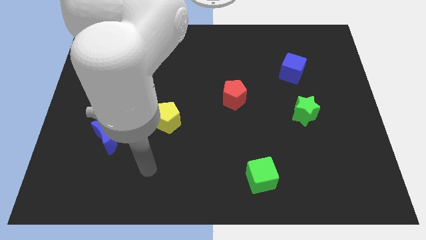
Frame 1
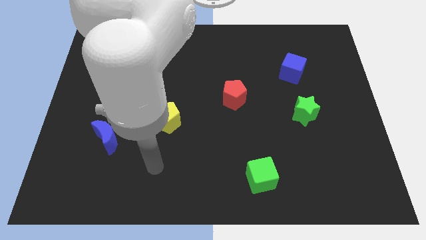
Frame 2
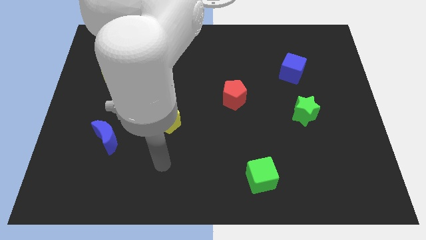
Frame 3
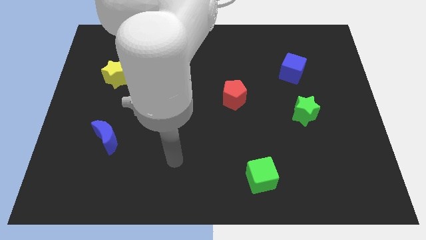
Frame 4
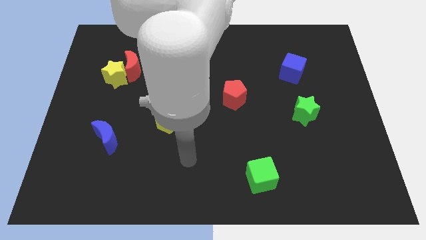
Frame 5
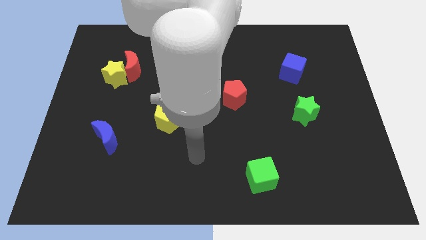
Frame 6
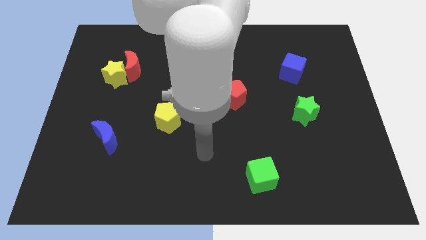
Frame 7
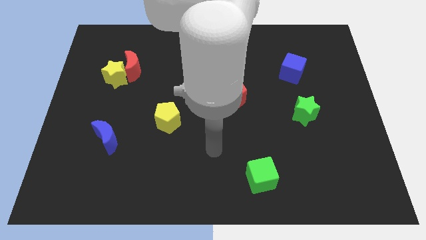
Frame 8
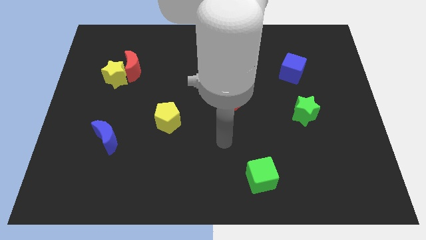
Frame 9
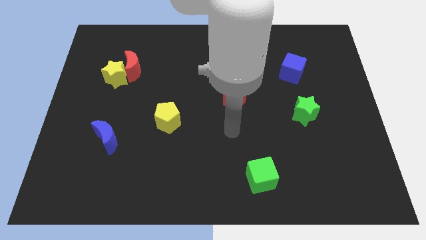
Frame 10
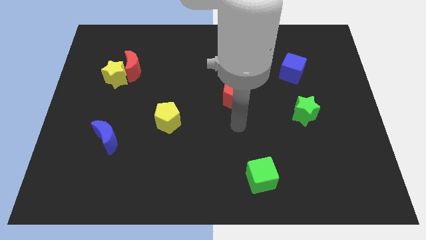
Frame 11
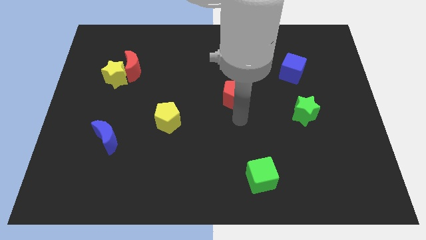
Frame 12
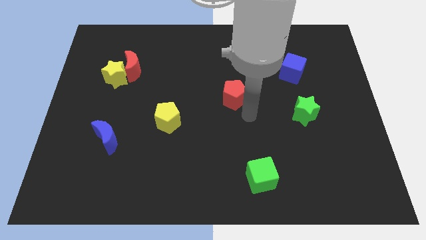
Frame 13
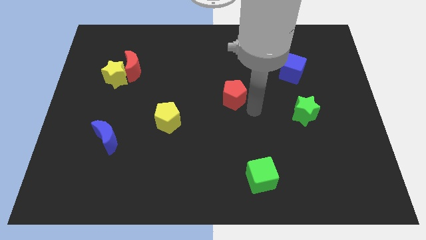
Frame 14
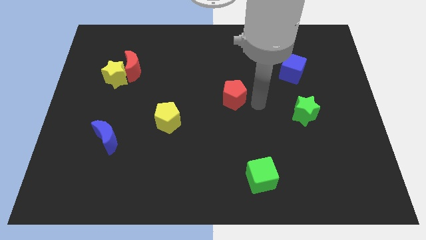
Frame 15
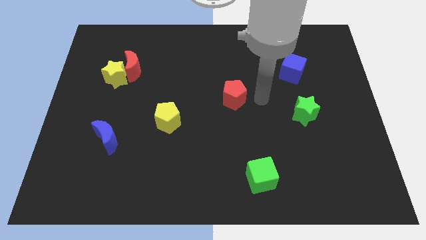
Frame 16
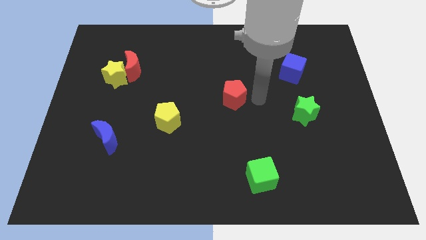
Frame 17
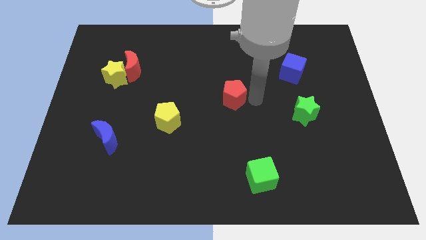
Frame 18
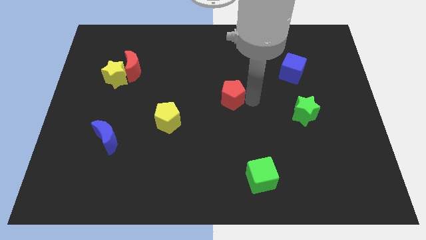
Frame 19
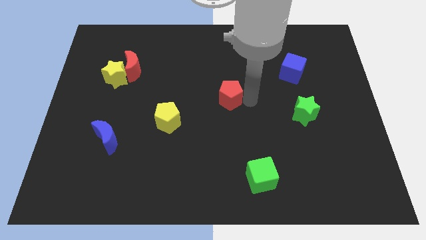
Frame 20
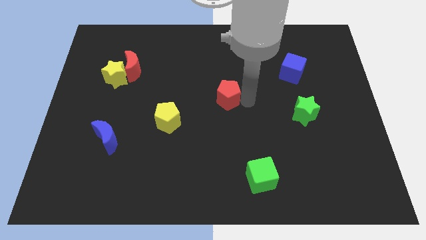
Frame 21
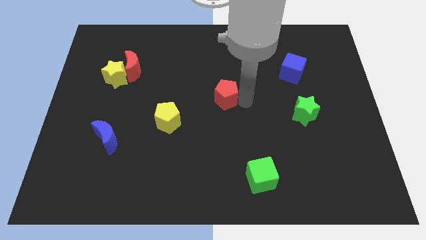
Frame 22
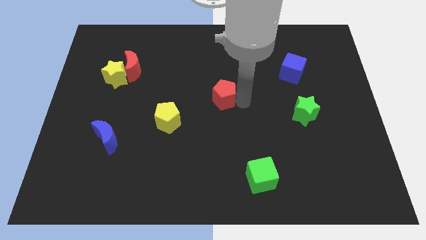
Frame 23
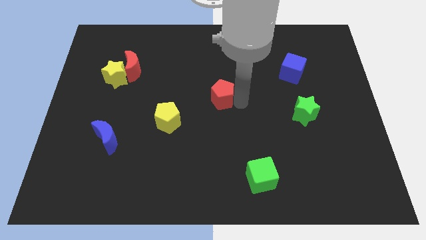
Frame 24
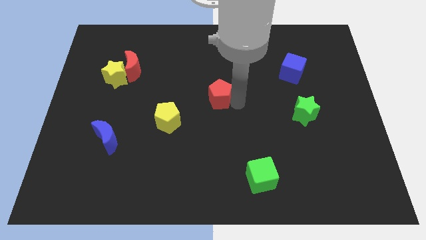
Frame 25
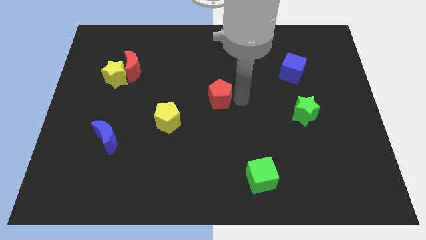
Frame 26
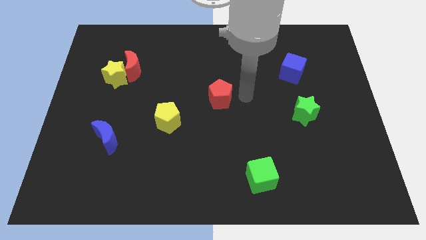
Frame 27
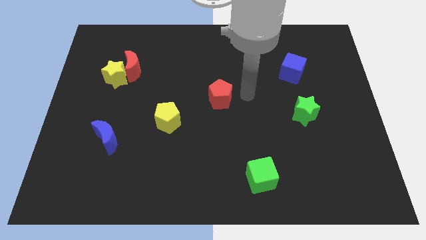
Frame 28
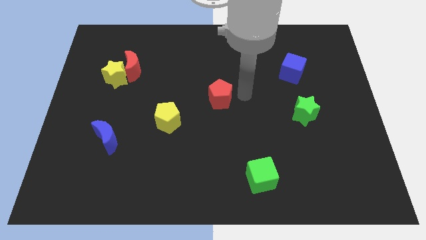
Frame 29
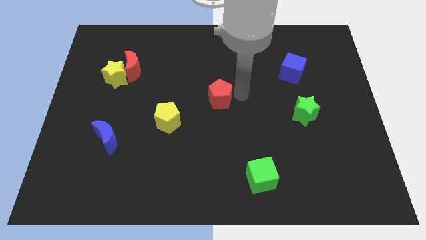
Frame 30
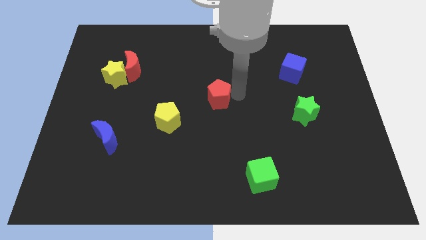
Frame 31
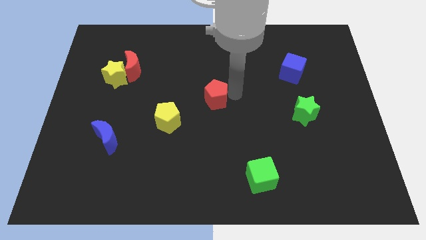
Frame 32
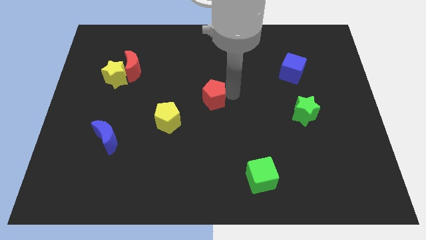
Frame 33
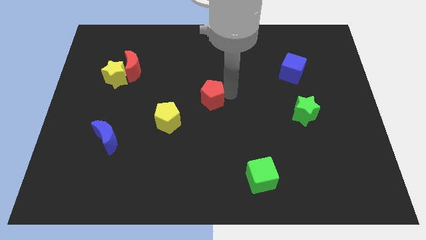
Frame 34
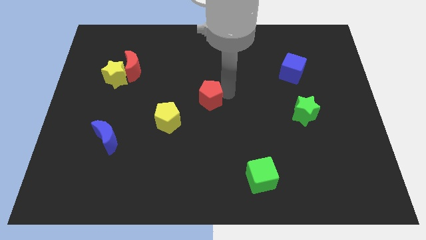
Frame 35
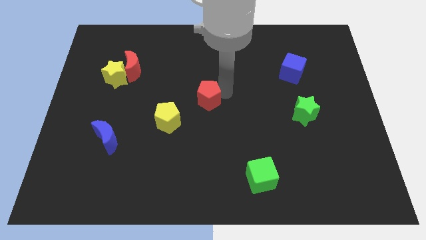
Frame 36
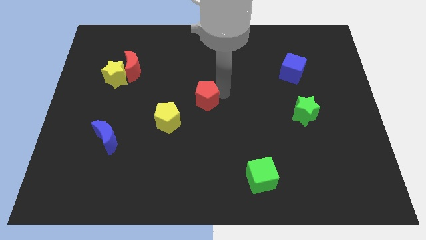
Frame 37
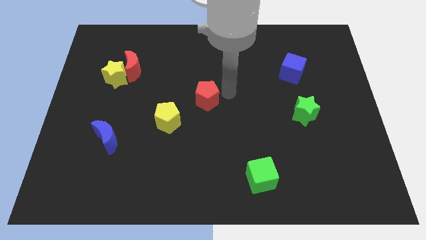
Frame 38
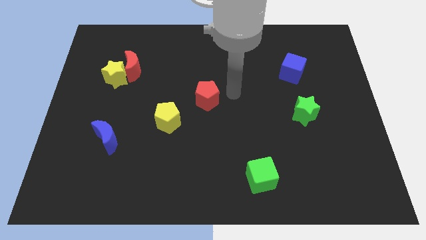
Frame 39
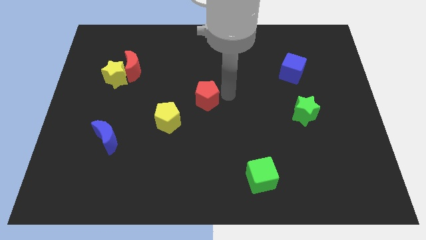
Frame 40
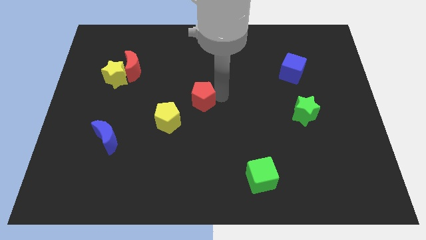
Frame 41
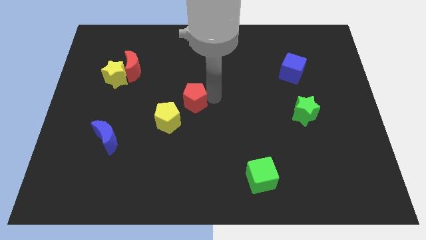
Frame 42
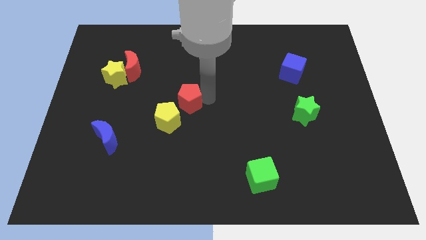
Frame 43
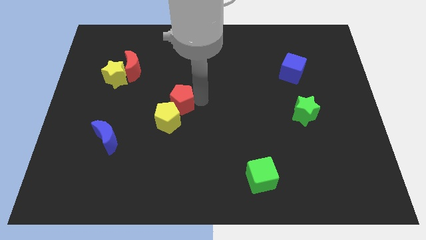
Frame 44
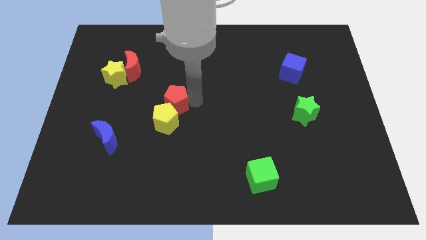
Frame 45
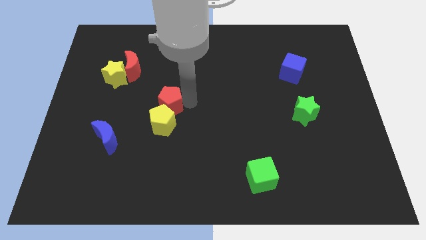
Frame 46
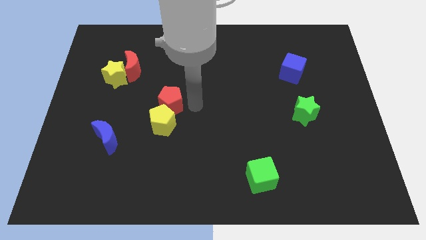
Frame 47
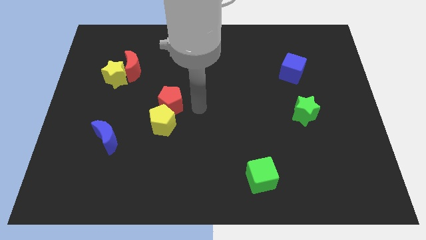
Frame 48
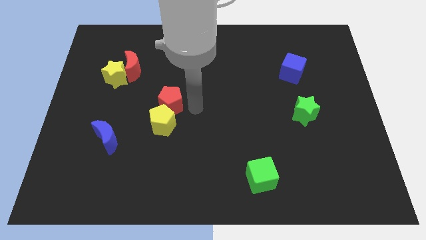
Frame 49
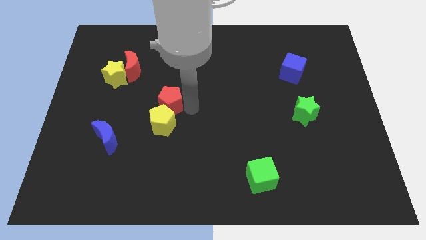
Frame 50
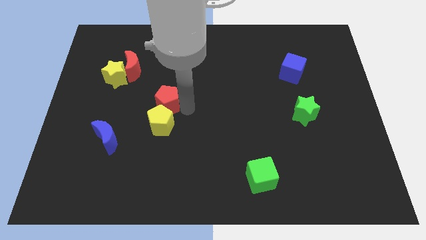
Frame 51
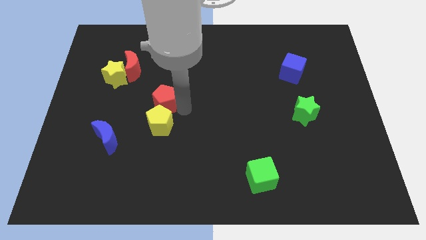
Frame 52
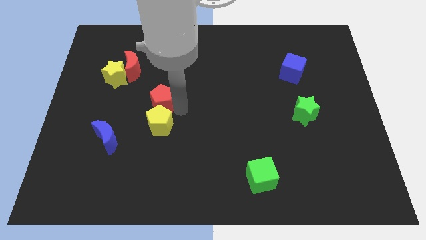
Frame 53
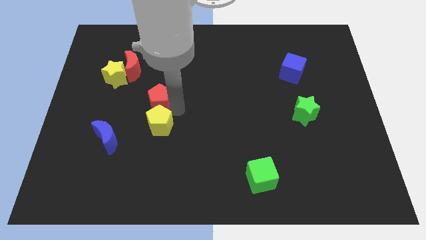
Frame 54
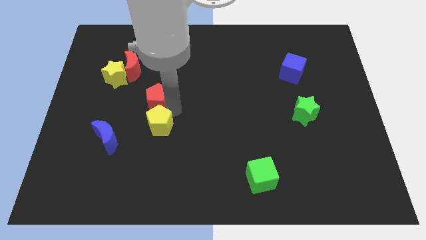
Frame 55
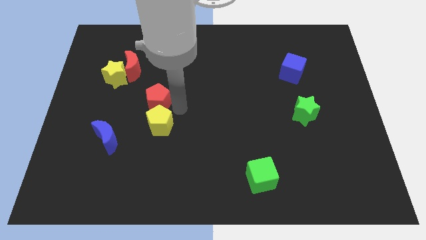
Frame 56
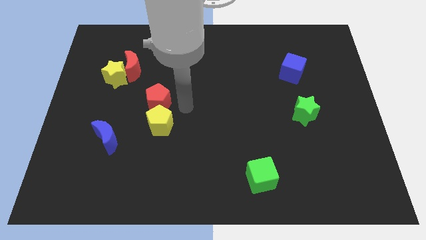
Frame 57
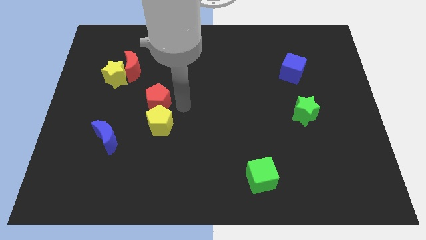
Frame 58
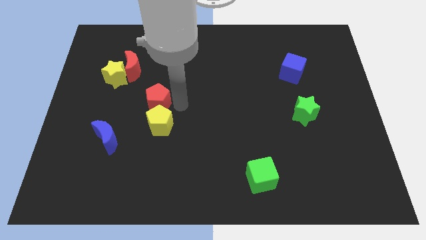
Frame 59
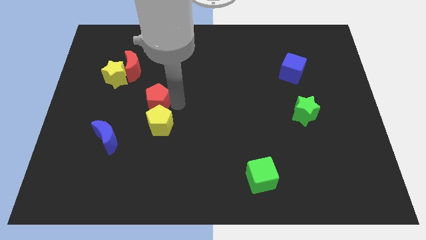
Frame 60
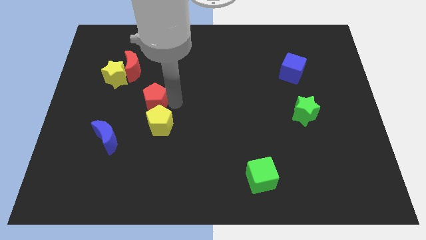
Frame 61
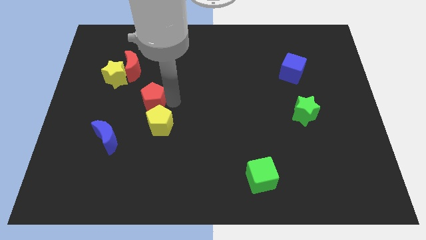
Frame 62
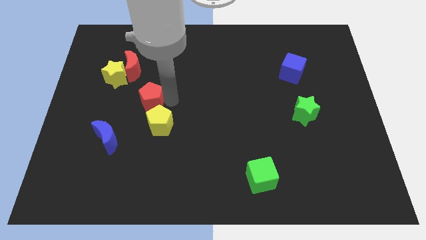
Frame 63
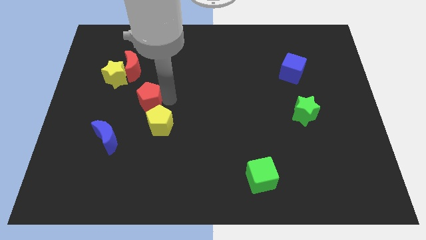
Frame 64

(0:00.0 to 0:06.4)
slide the red pentagon left

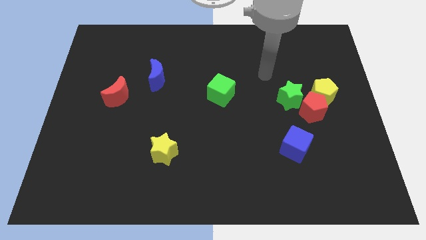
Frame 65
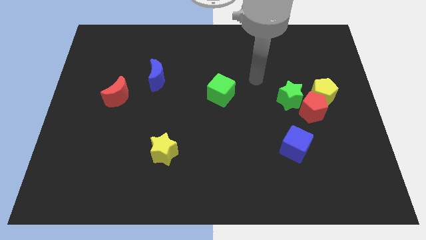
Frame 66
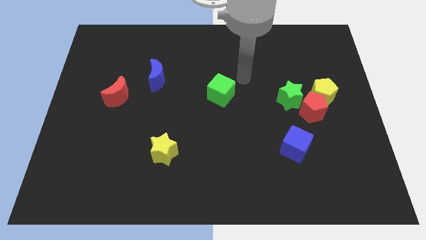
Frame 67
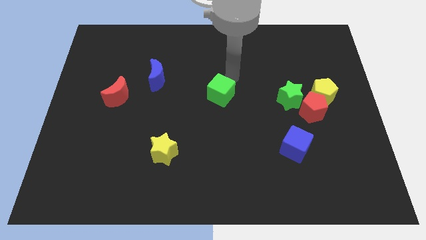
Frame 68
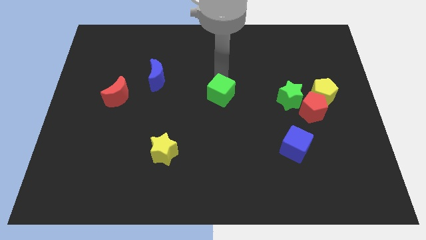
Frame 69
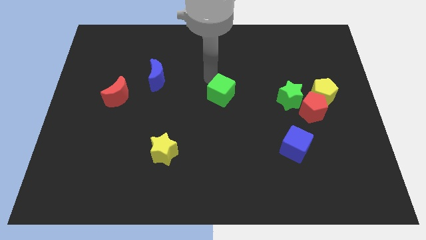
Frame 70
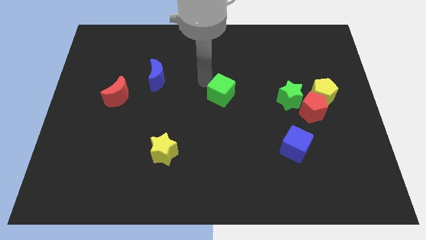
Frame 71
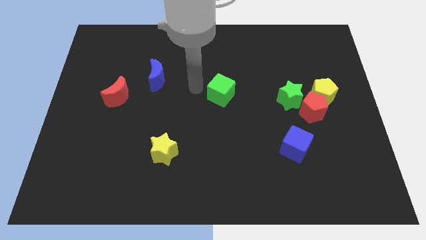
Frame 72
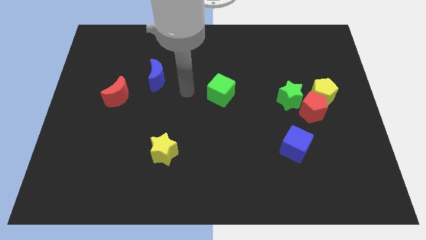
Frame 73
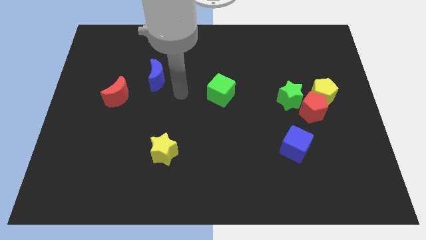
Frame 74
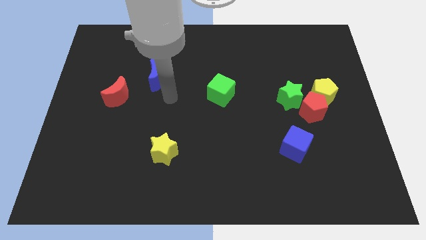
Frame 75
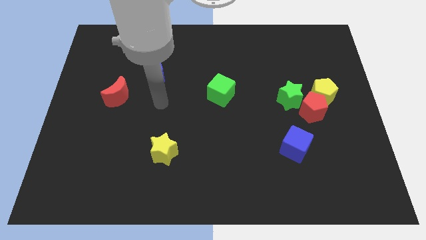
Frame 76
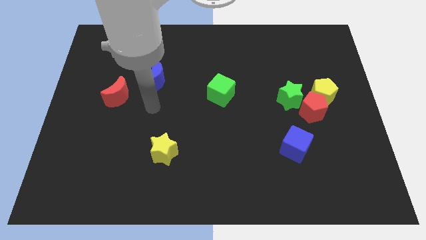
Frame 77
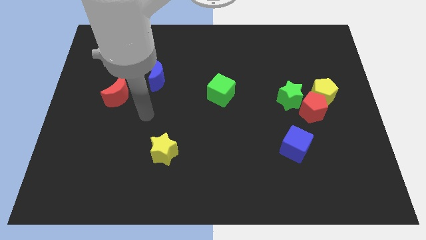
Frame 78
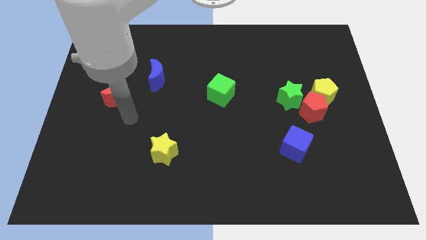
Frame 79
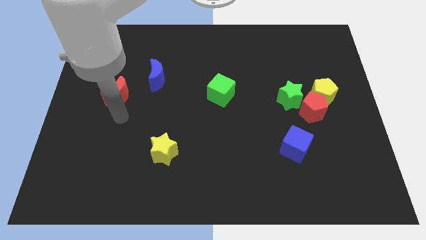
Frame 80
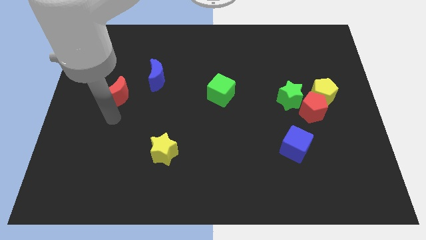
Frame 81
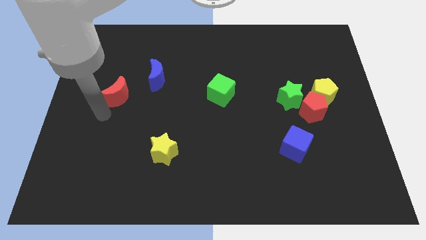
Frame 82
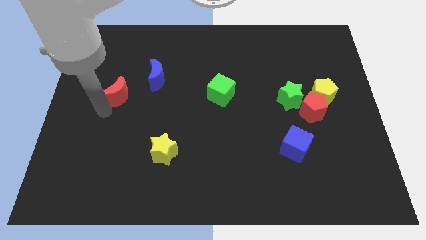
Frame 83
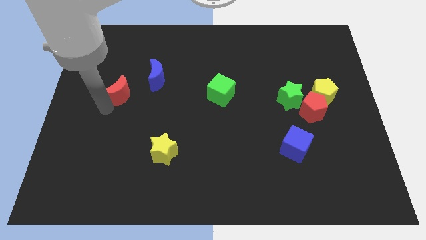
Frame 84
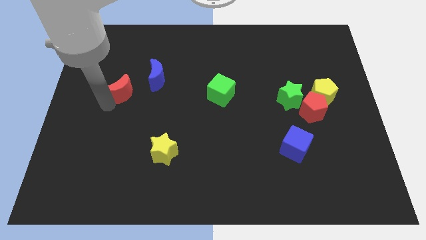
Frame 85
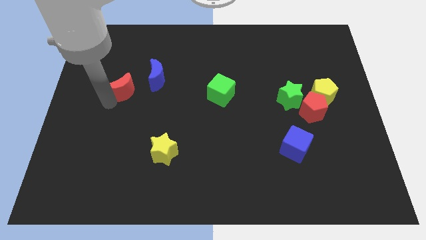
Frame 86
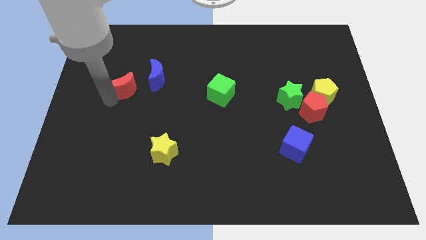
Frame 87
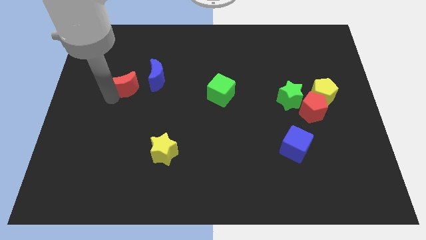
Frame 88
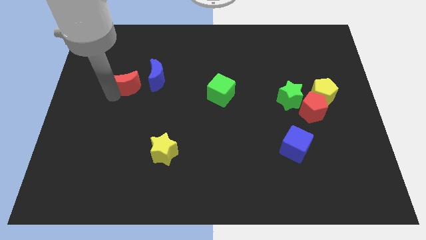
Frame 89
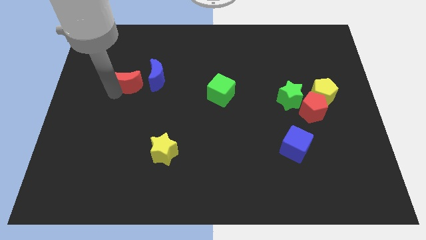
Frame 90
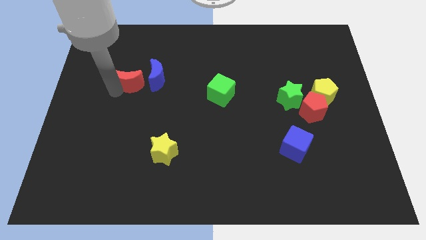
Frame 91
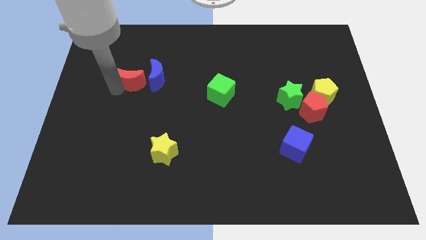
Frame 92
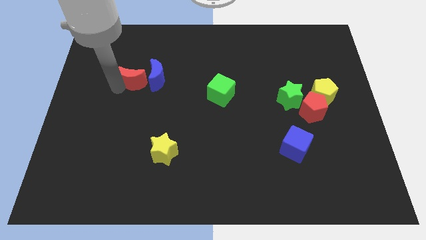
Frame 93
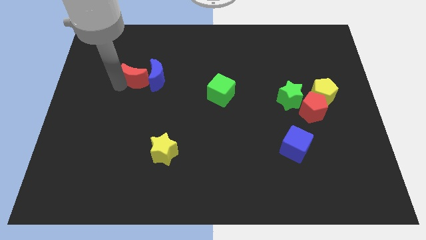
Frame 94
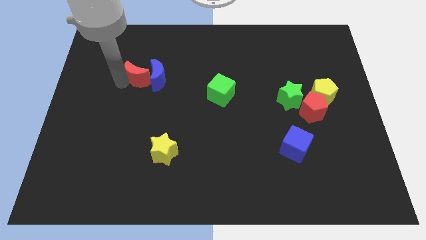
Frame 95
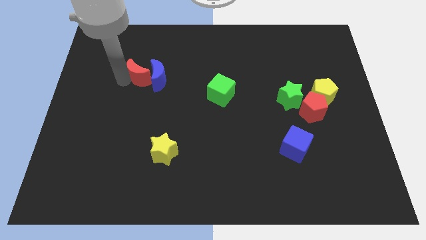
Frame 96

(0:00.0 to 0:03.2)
slightly move the red moon upwards and then right
